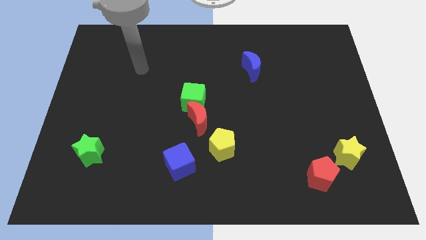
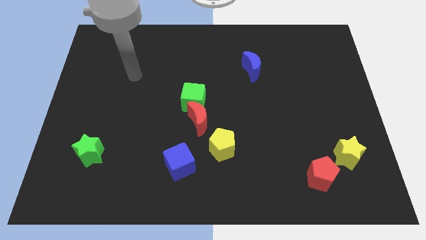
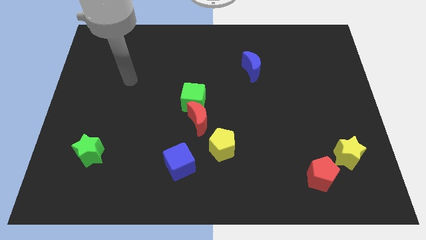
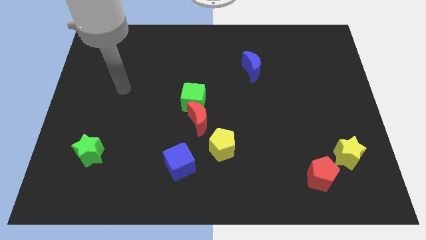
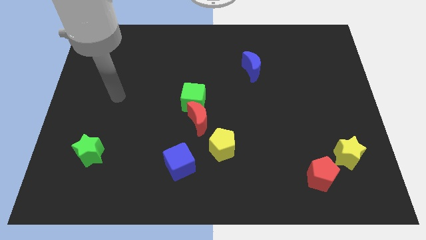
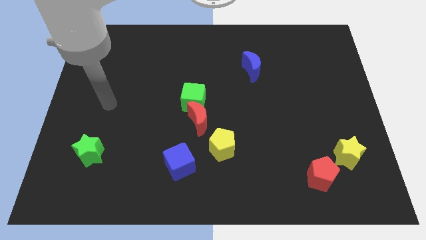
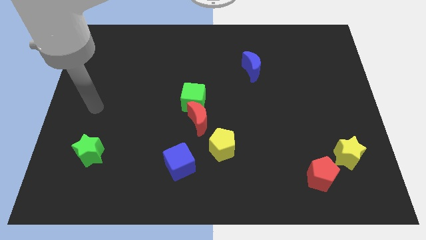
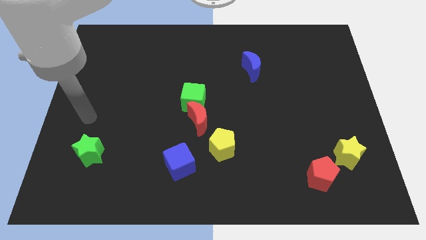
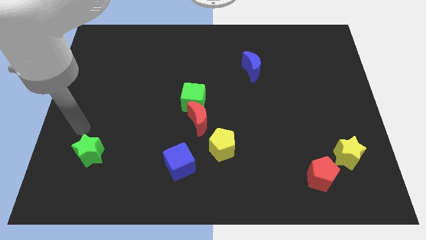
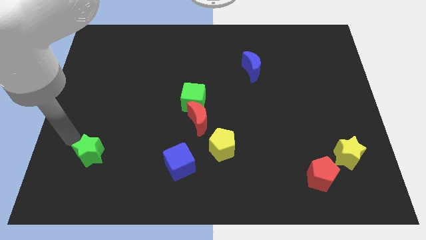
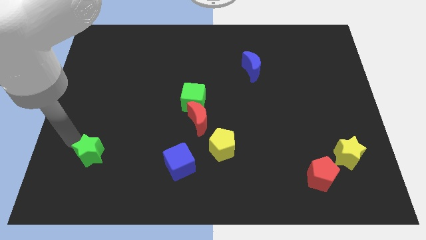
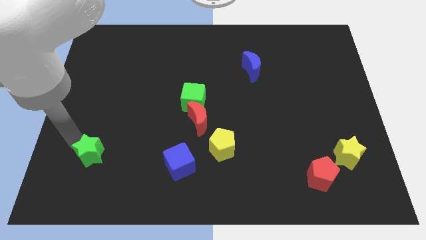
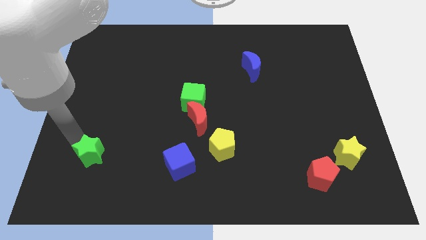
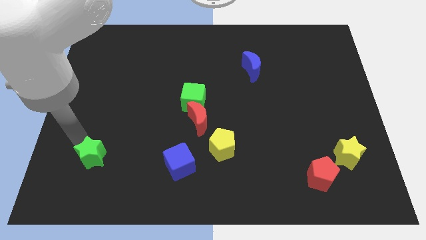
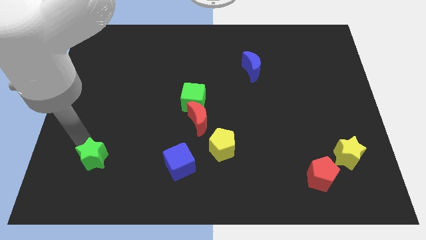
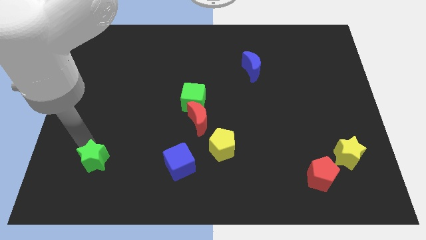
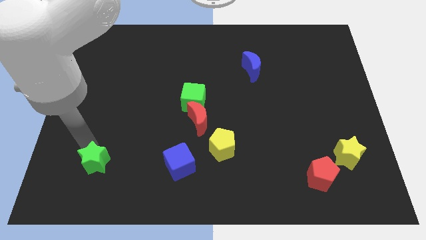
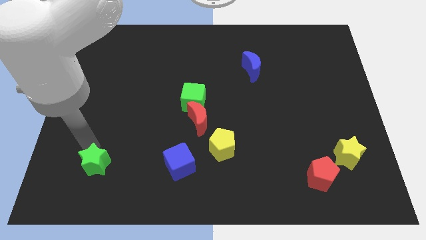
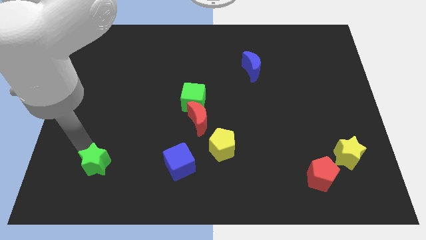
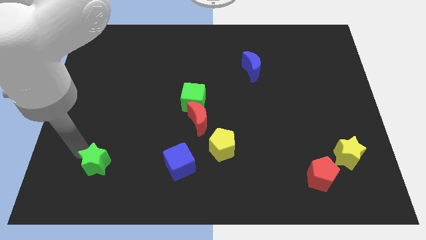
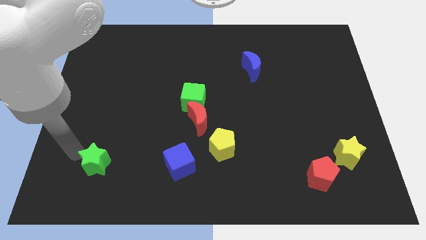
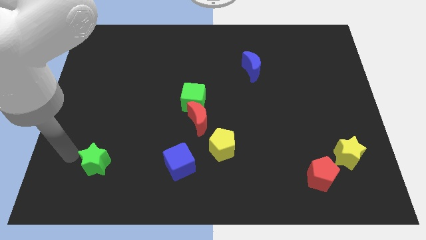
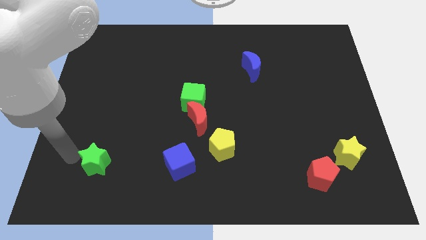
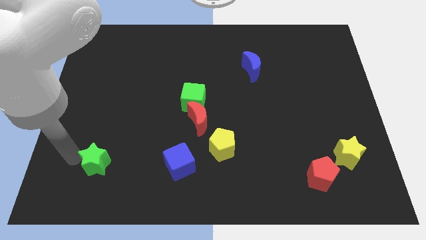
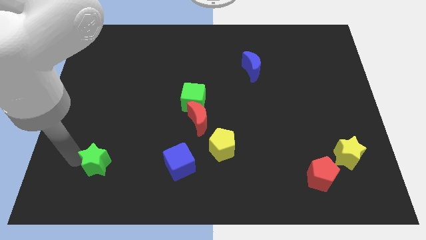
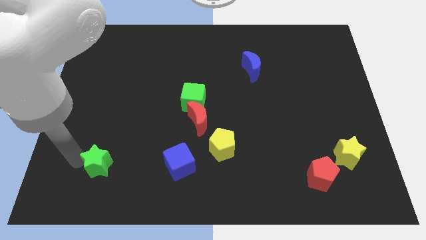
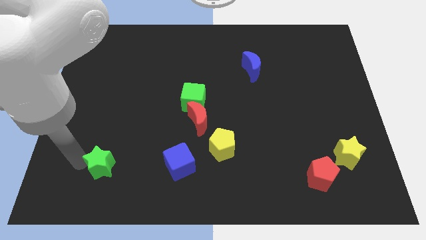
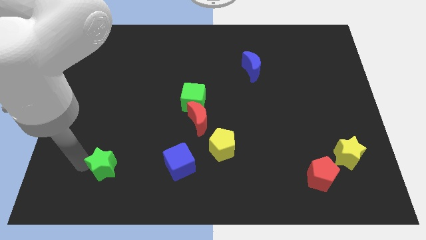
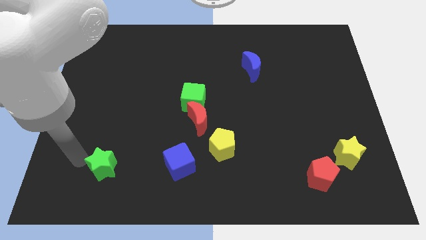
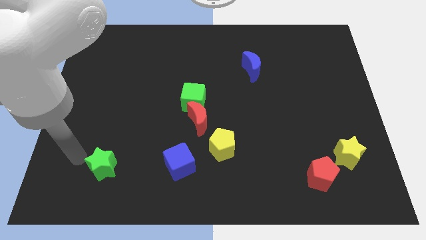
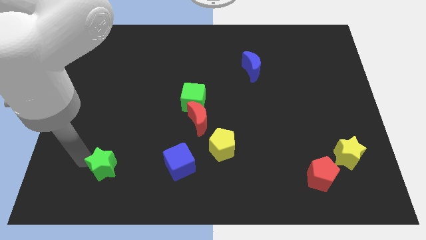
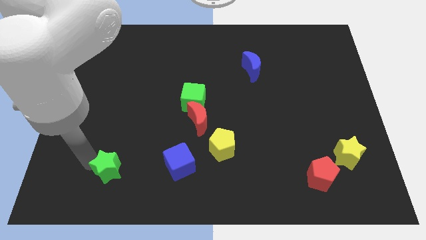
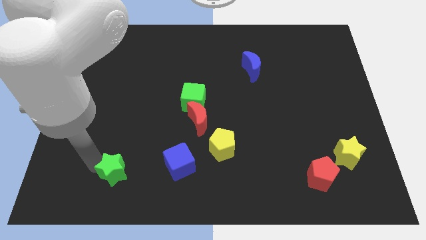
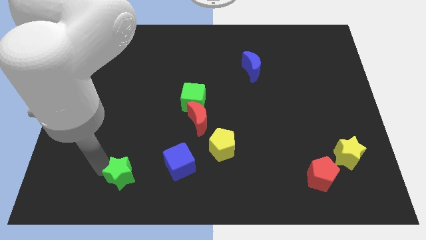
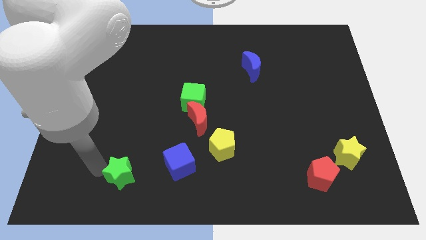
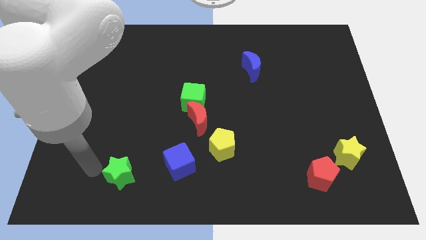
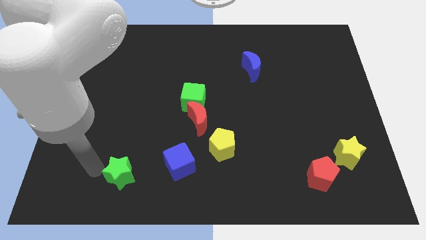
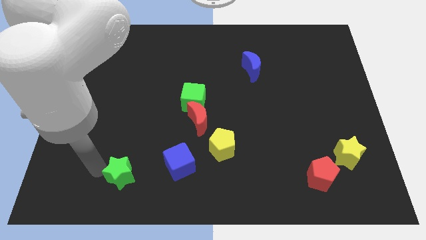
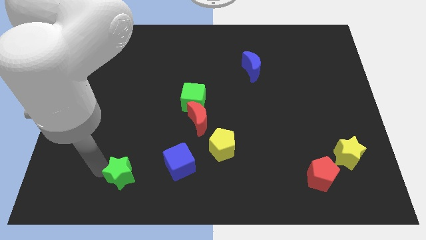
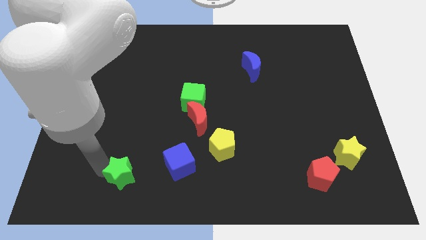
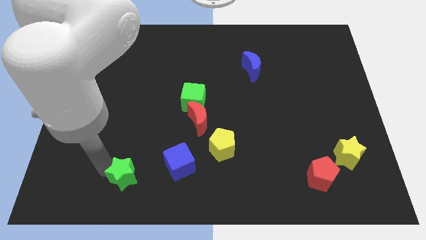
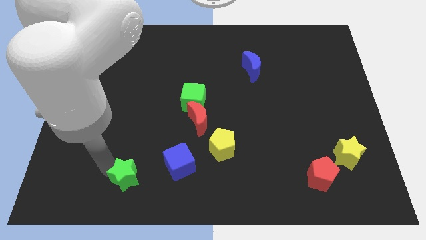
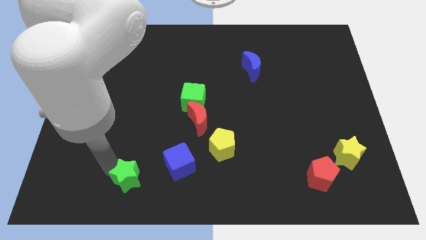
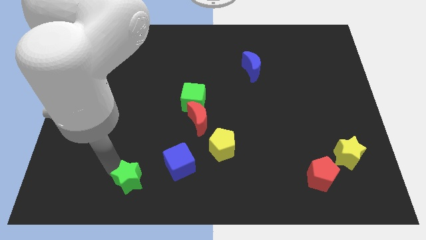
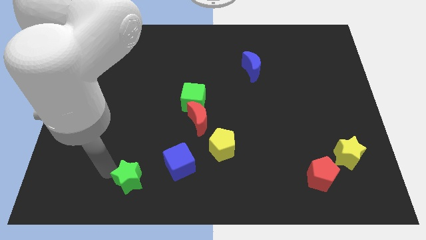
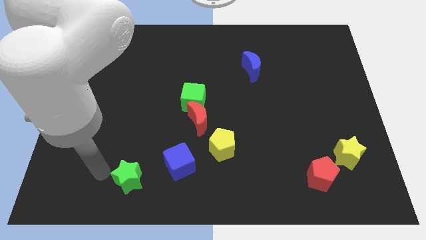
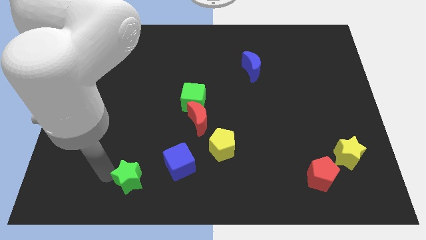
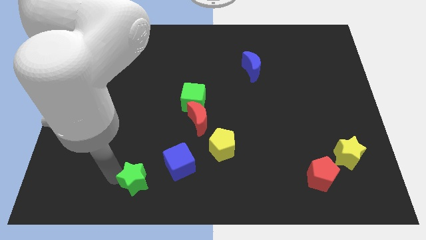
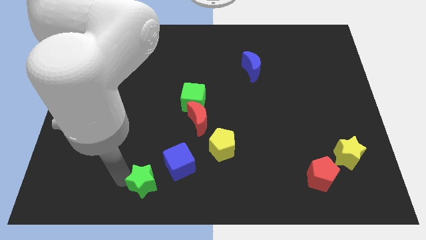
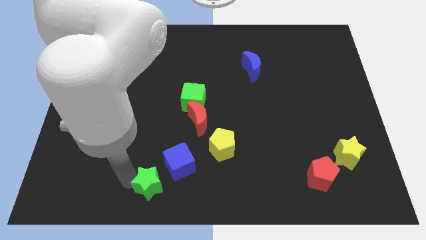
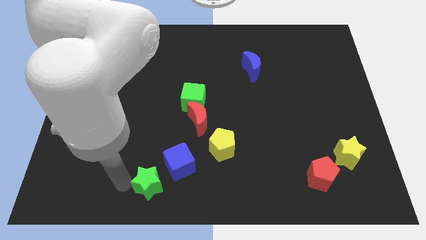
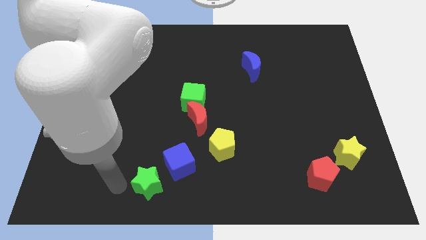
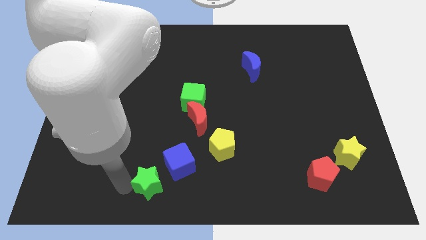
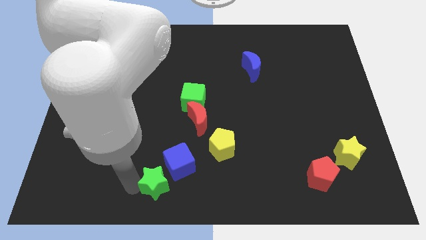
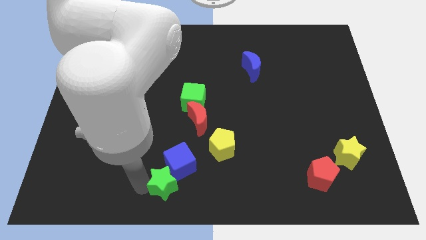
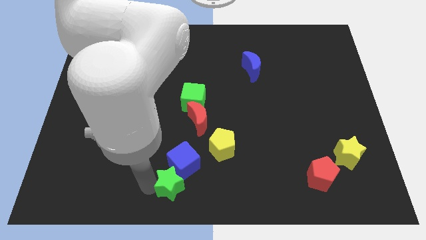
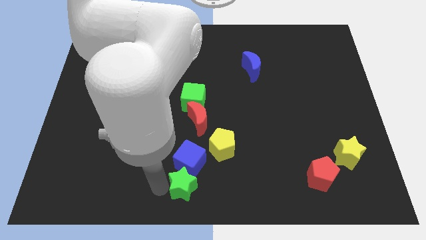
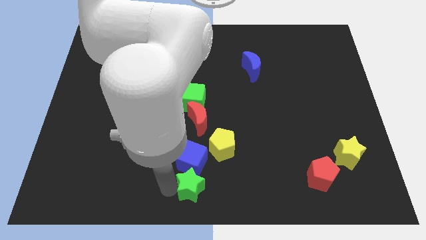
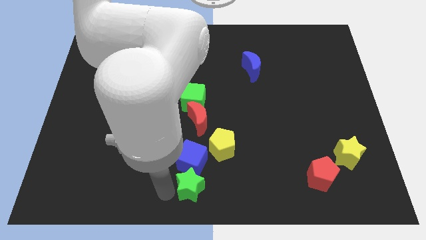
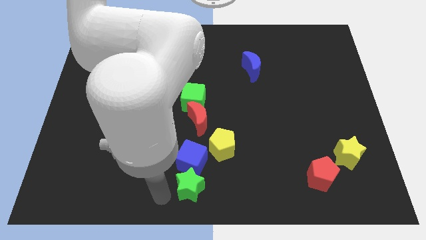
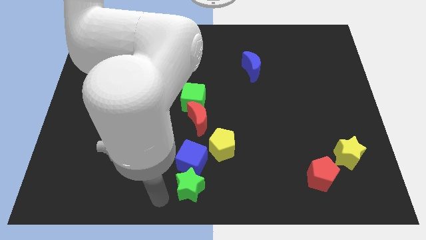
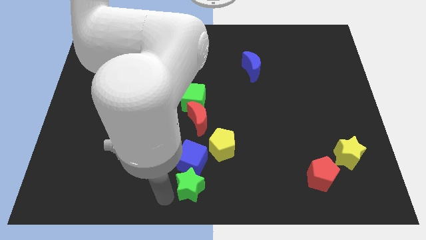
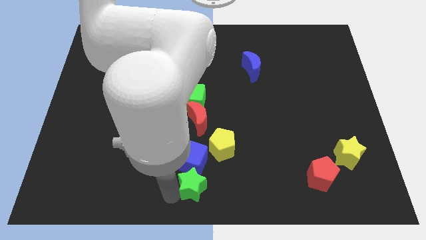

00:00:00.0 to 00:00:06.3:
move the green star to the right

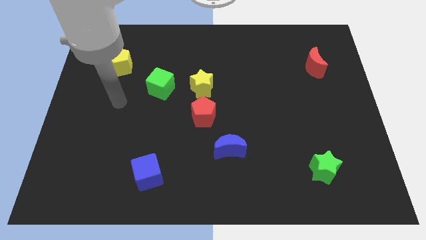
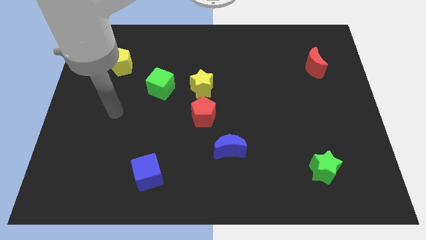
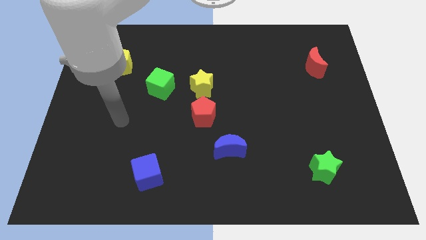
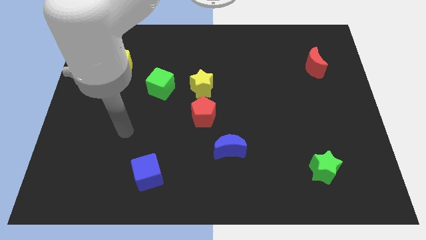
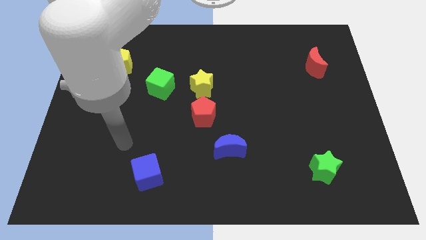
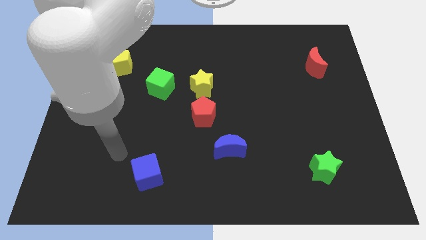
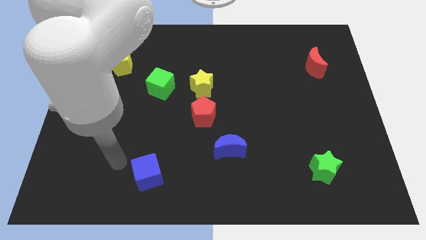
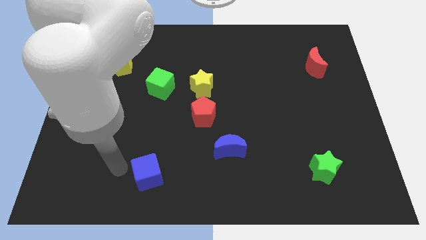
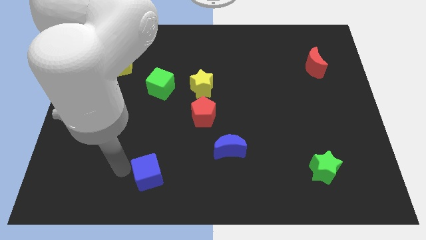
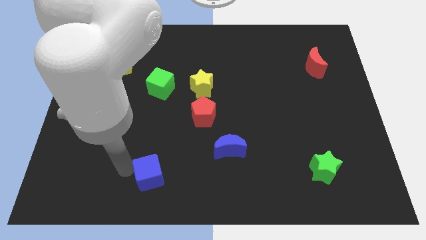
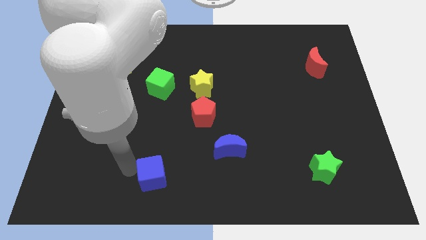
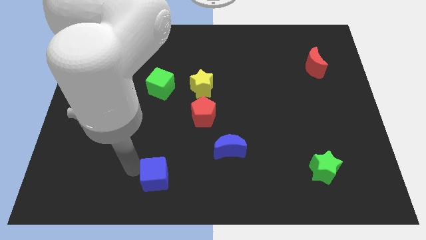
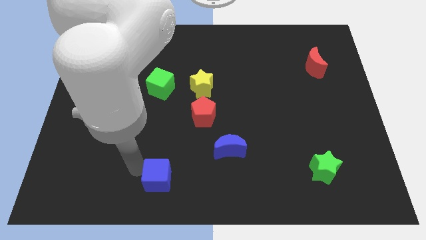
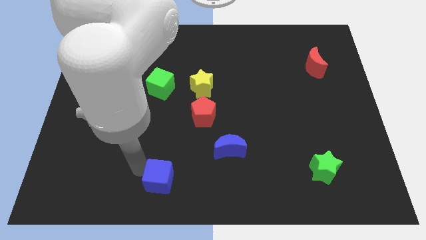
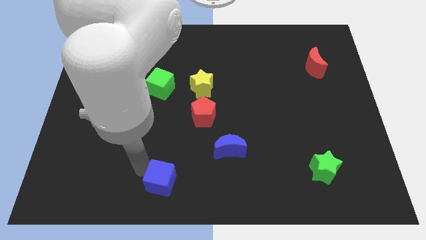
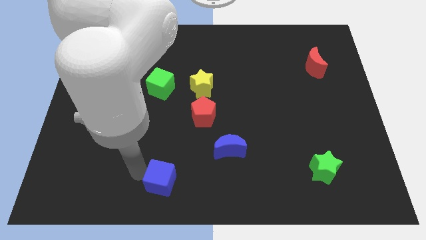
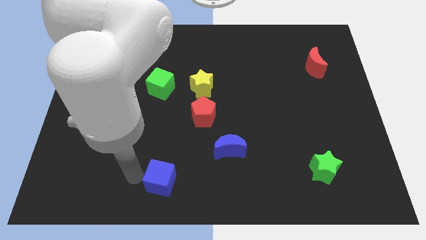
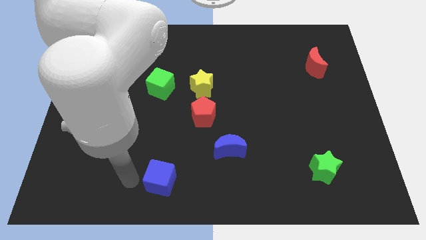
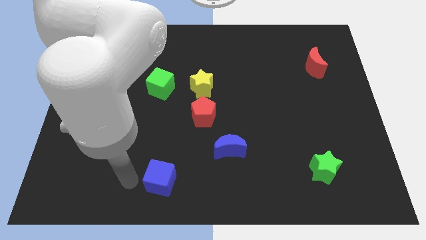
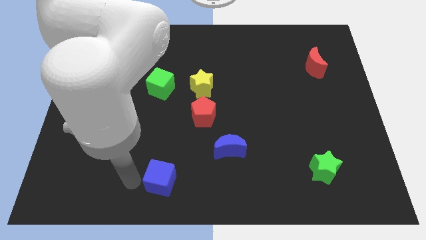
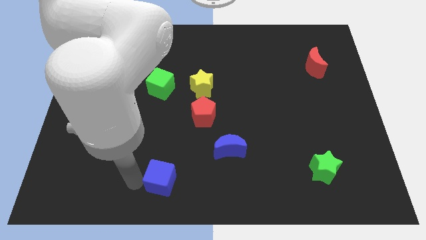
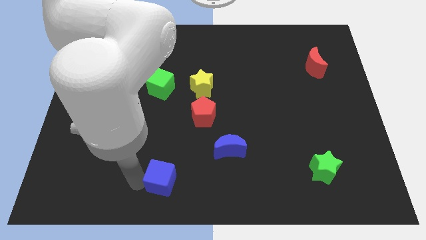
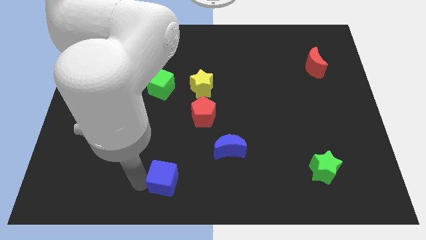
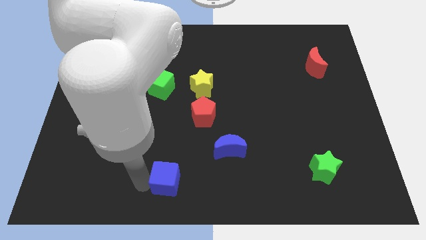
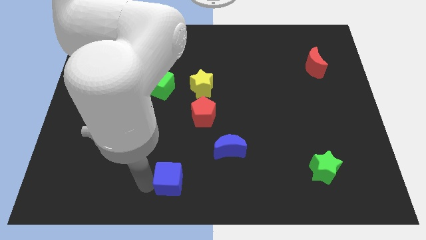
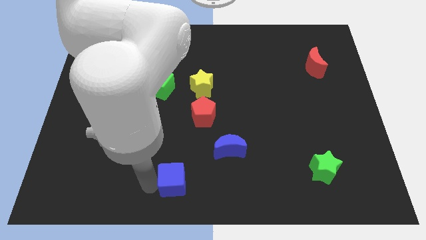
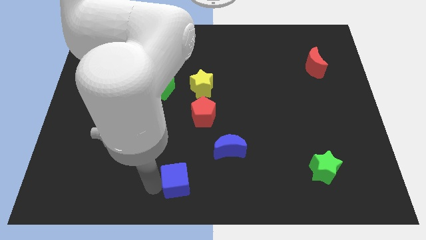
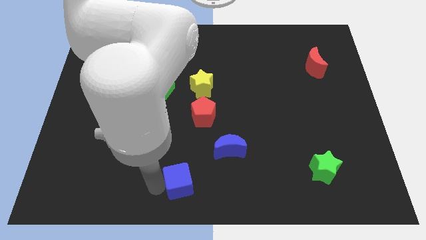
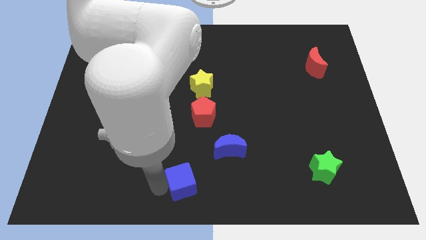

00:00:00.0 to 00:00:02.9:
slightly slide the blue cube to the right
